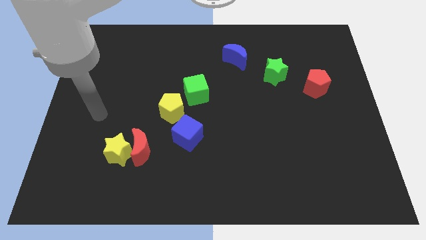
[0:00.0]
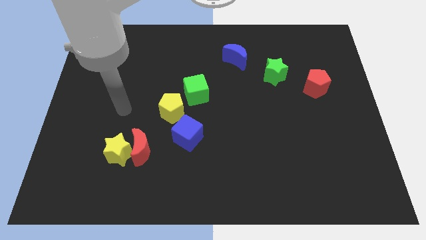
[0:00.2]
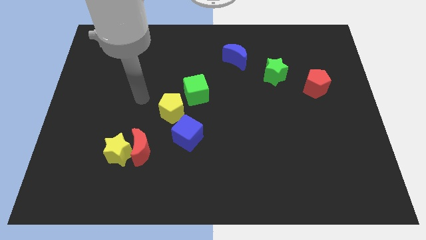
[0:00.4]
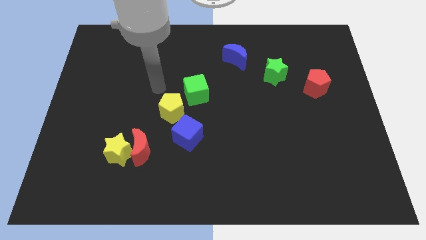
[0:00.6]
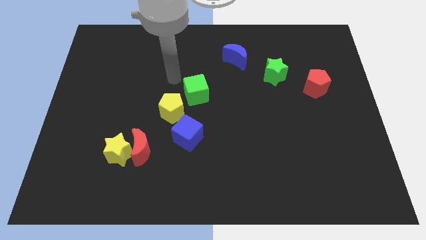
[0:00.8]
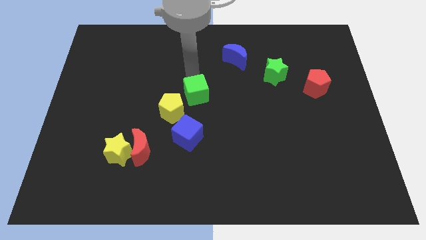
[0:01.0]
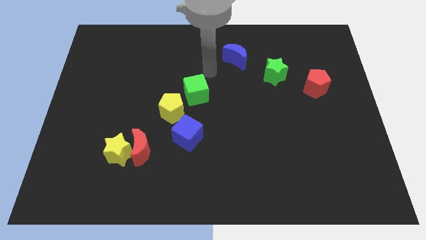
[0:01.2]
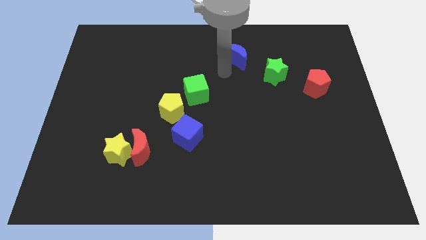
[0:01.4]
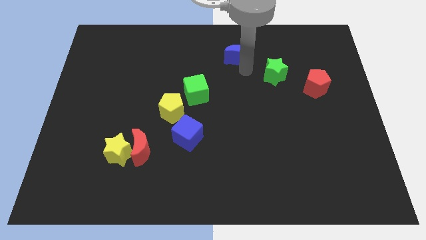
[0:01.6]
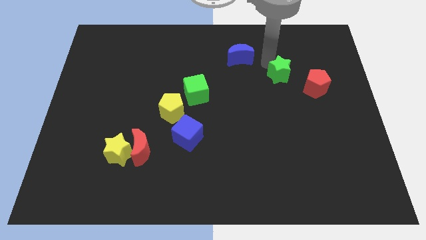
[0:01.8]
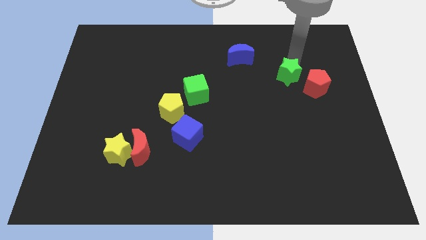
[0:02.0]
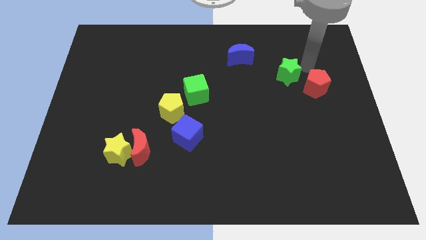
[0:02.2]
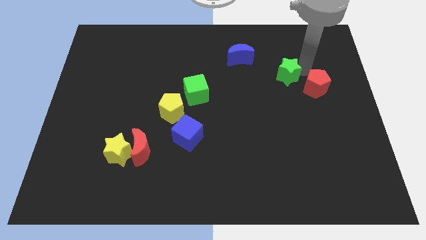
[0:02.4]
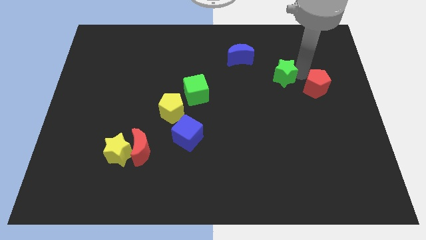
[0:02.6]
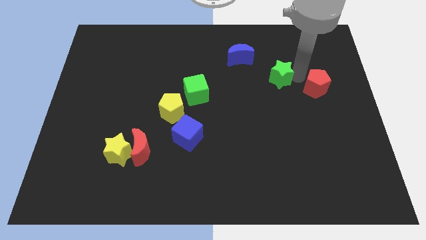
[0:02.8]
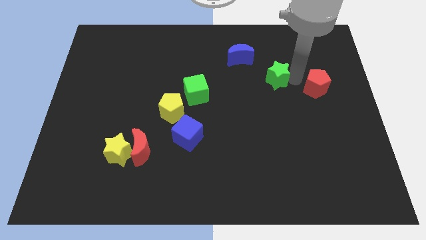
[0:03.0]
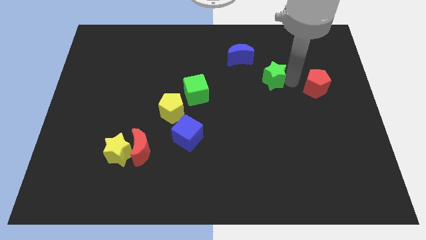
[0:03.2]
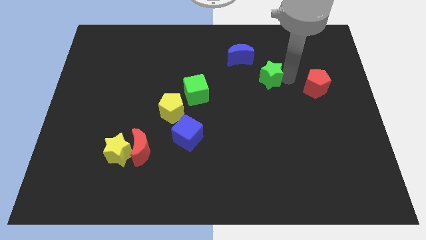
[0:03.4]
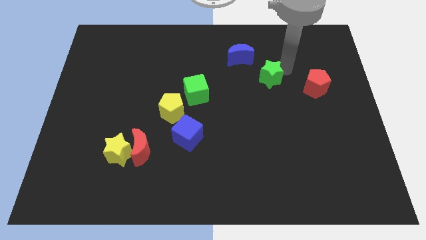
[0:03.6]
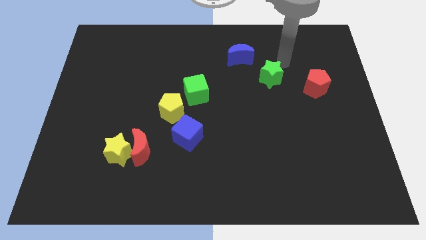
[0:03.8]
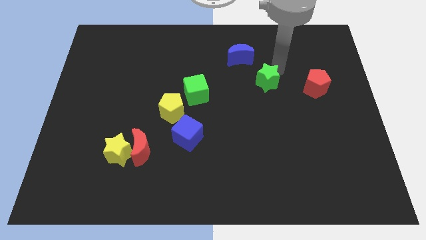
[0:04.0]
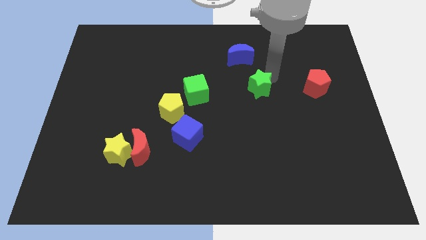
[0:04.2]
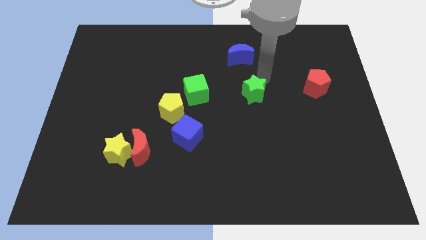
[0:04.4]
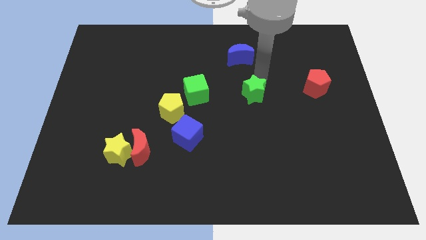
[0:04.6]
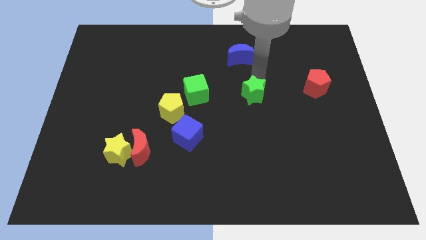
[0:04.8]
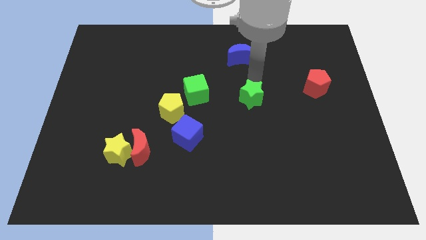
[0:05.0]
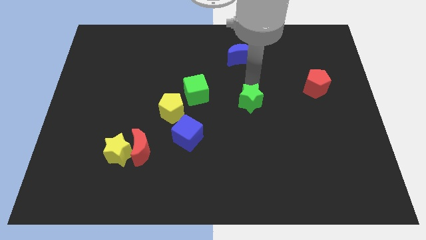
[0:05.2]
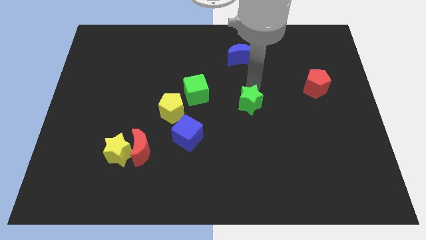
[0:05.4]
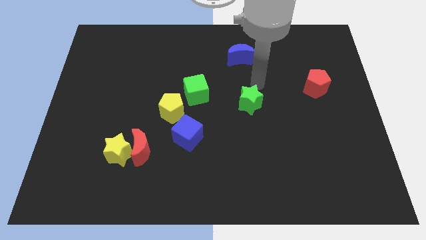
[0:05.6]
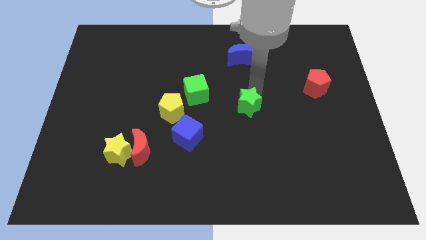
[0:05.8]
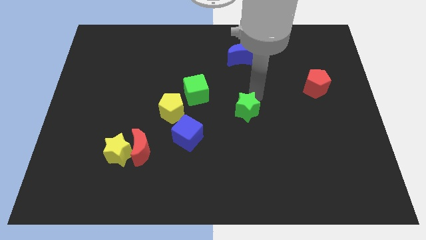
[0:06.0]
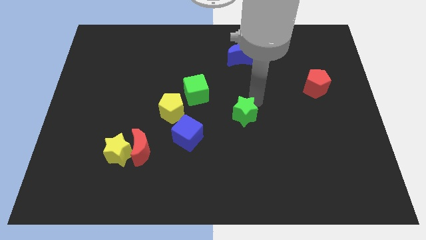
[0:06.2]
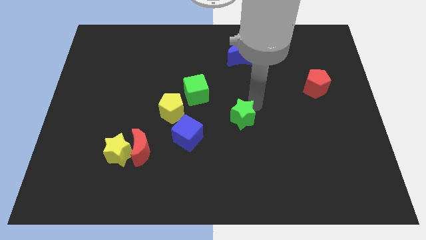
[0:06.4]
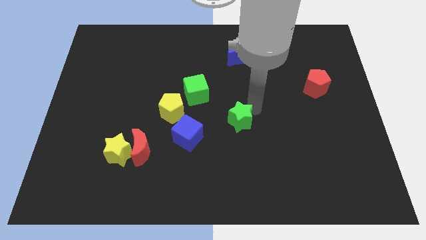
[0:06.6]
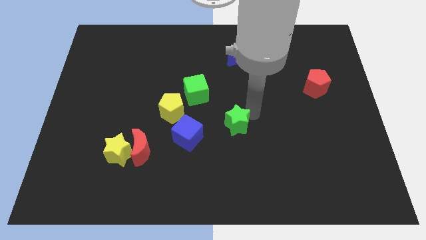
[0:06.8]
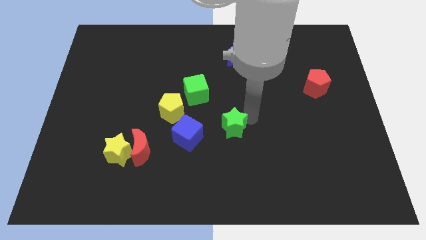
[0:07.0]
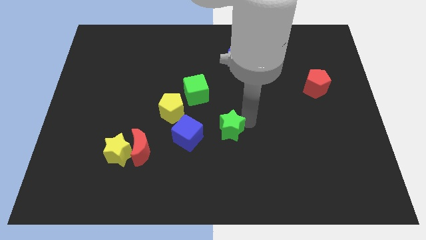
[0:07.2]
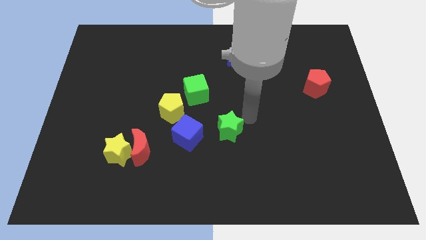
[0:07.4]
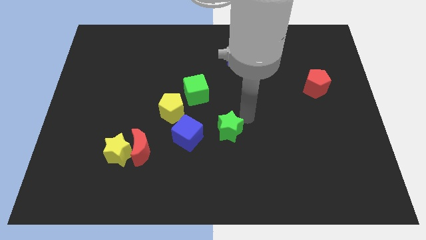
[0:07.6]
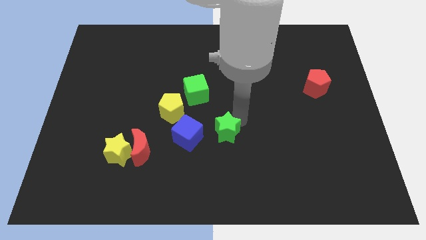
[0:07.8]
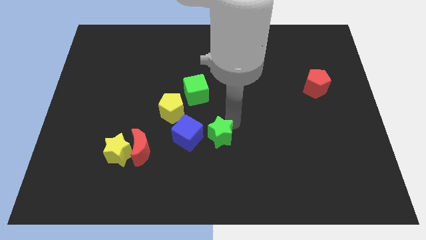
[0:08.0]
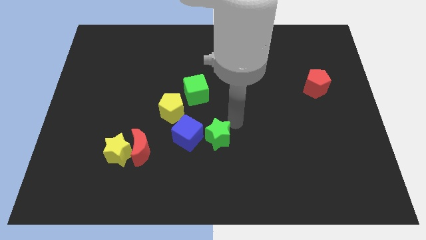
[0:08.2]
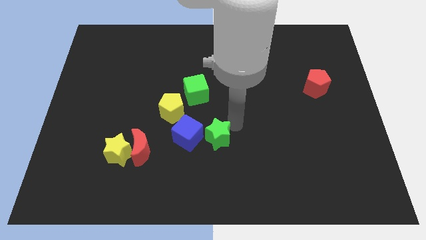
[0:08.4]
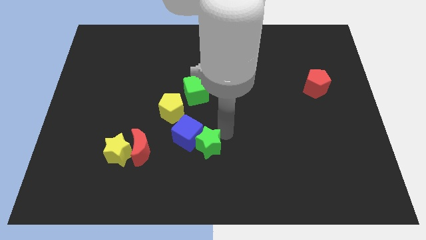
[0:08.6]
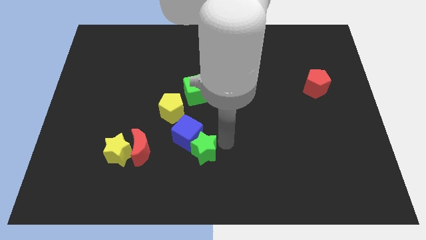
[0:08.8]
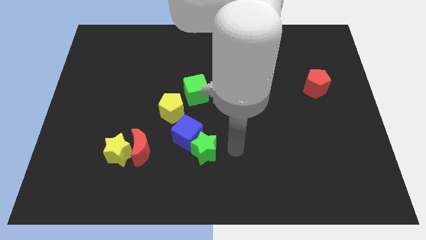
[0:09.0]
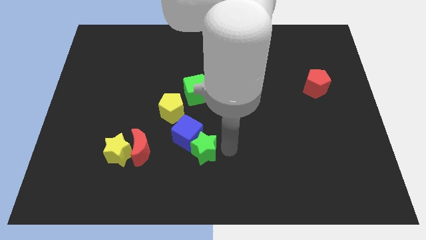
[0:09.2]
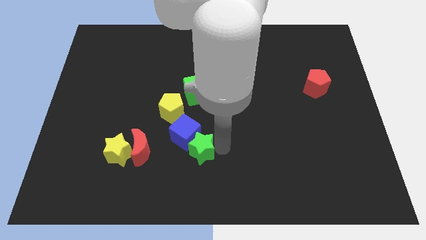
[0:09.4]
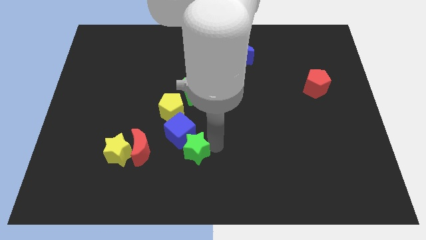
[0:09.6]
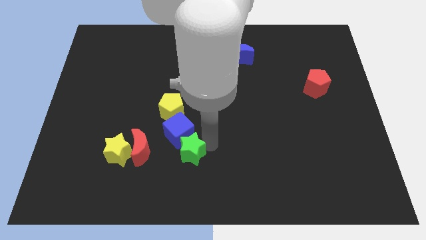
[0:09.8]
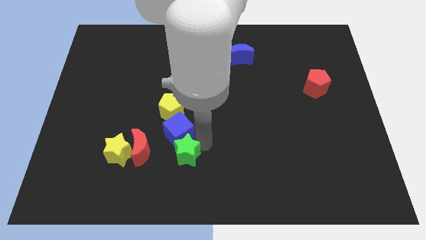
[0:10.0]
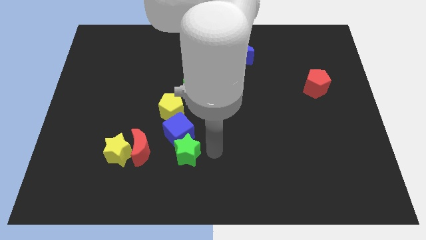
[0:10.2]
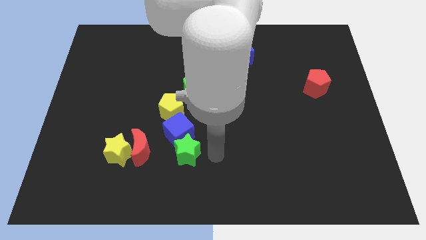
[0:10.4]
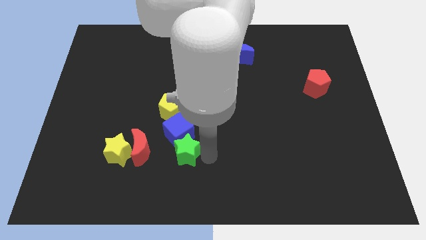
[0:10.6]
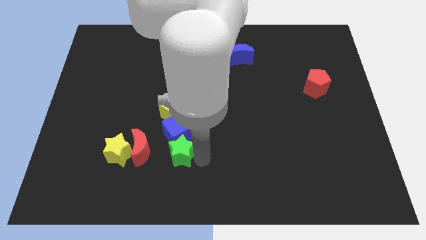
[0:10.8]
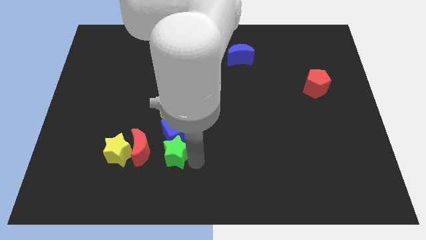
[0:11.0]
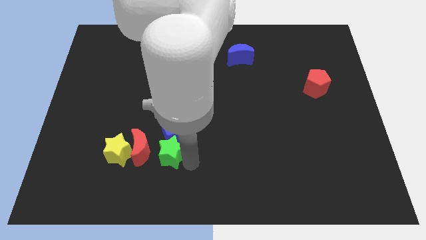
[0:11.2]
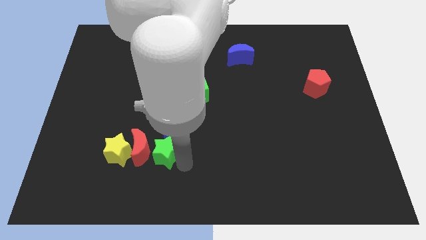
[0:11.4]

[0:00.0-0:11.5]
move the green star towards the red moon

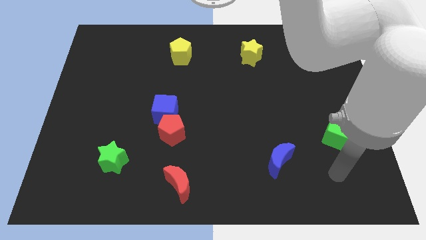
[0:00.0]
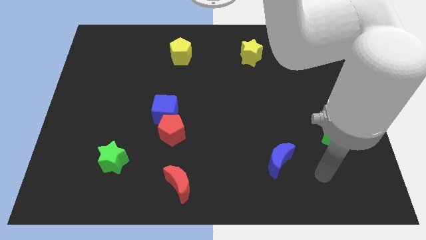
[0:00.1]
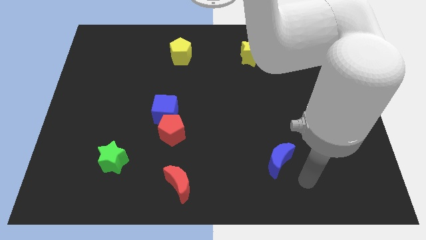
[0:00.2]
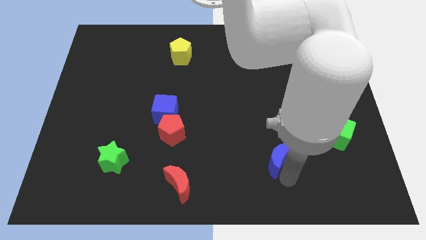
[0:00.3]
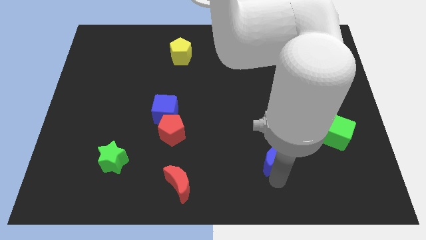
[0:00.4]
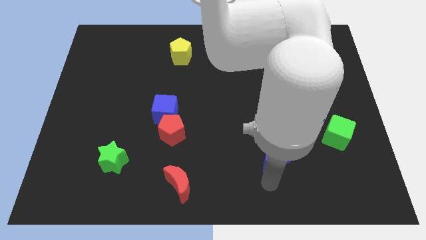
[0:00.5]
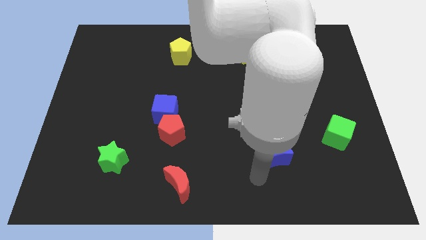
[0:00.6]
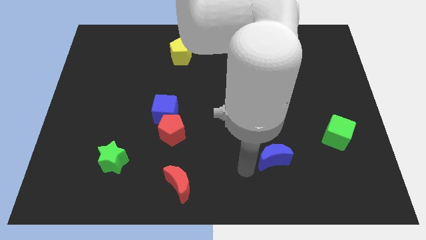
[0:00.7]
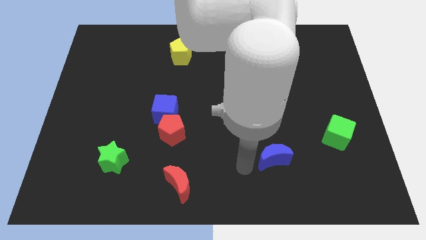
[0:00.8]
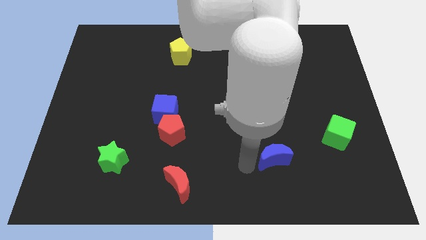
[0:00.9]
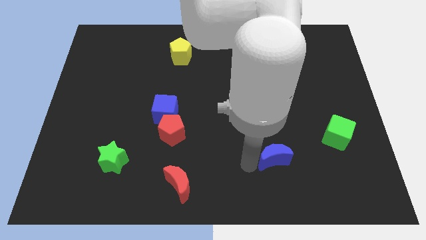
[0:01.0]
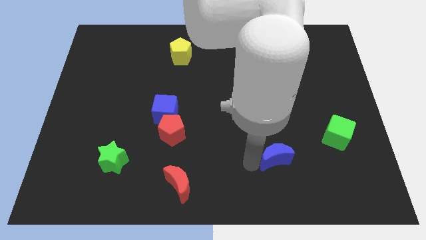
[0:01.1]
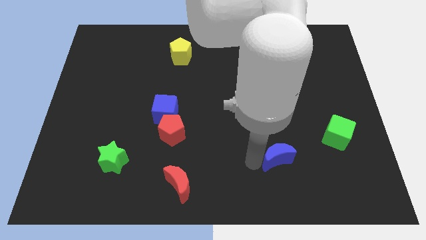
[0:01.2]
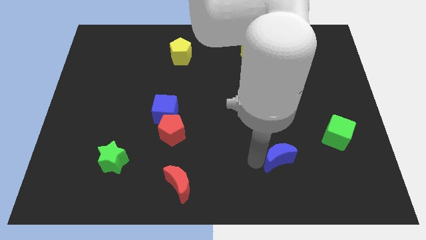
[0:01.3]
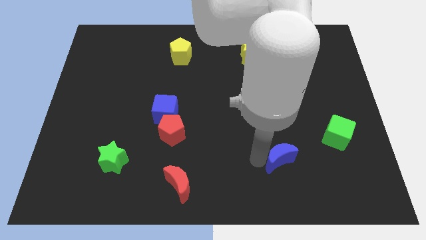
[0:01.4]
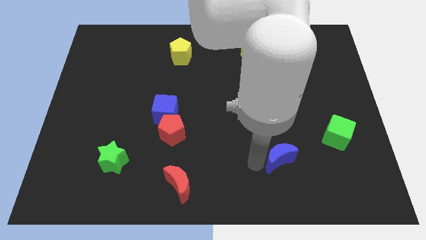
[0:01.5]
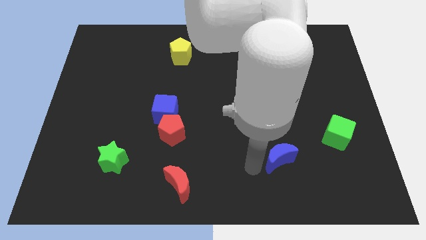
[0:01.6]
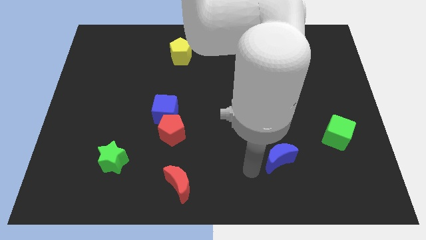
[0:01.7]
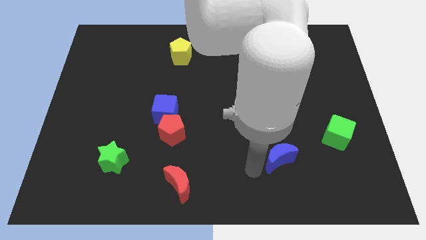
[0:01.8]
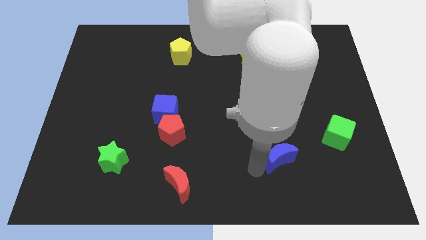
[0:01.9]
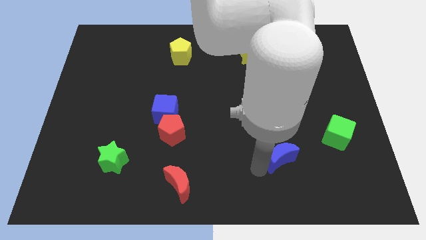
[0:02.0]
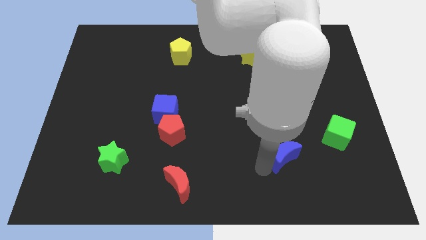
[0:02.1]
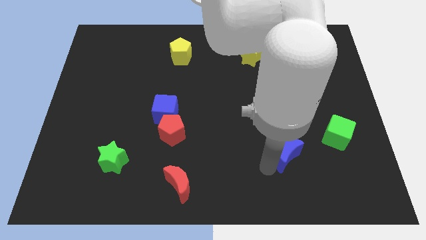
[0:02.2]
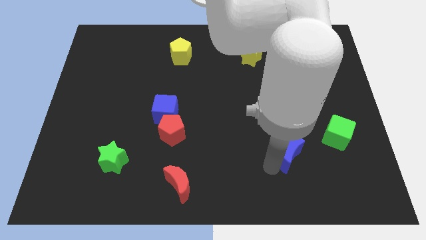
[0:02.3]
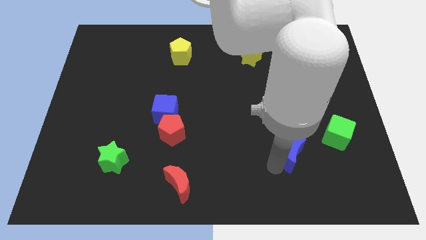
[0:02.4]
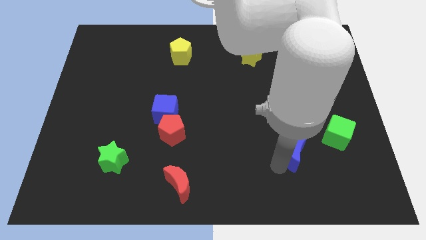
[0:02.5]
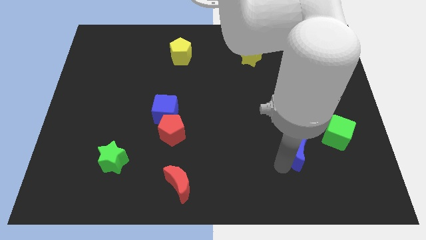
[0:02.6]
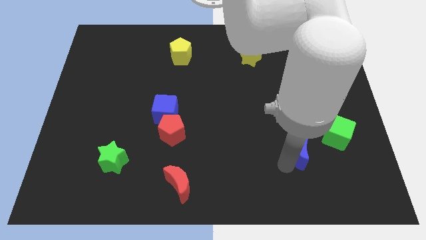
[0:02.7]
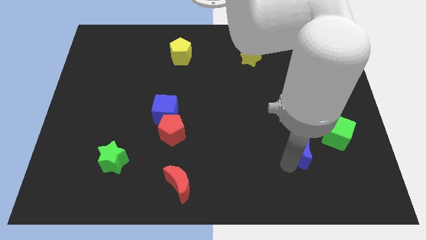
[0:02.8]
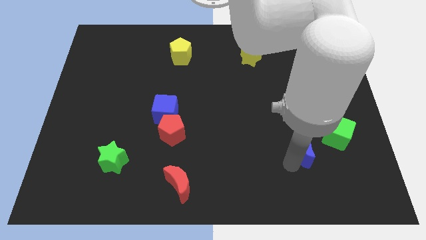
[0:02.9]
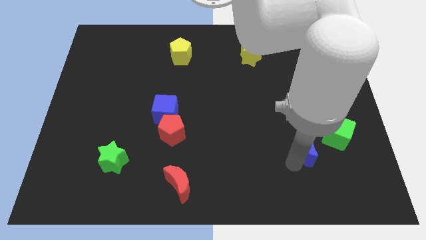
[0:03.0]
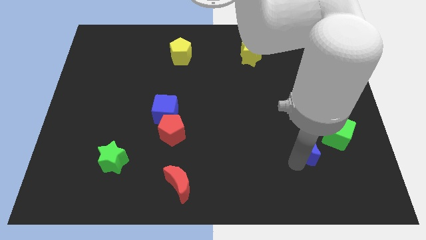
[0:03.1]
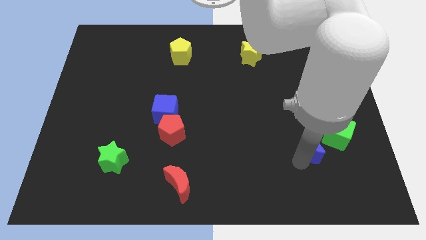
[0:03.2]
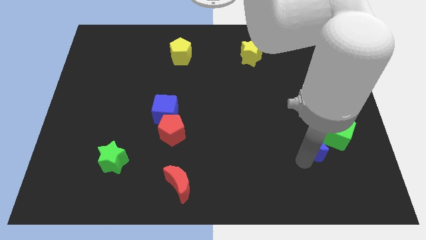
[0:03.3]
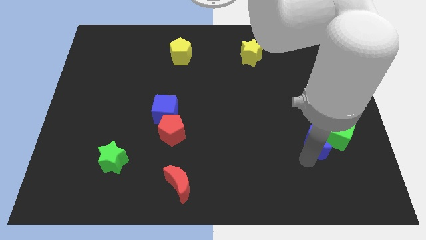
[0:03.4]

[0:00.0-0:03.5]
put the blue moon close to the green cube
